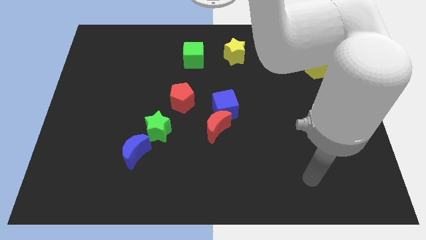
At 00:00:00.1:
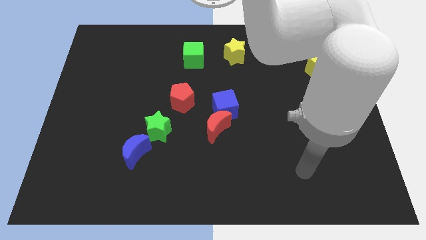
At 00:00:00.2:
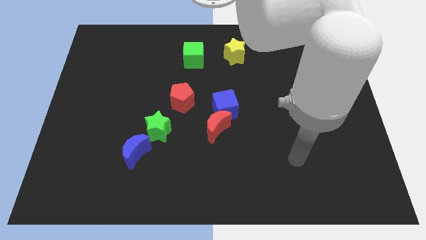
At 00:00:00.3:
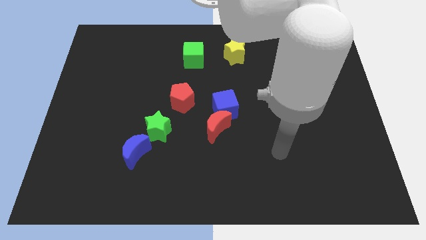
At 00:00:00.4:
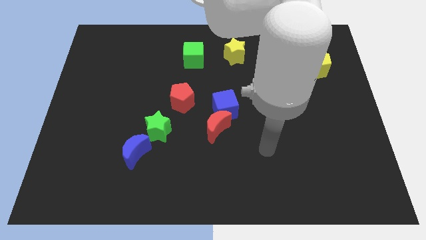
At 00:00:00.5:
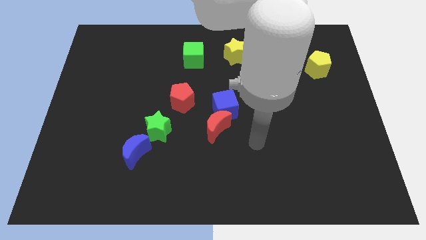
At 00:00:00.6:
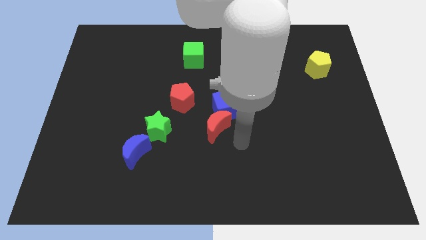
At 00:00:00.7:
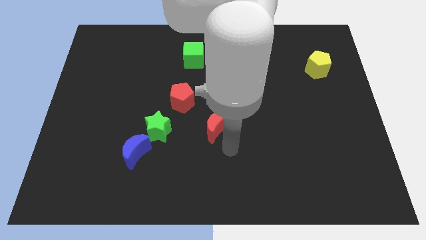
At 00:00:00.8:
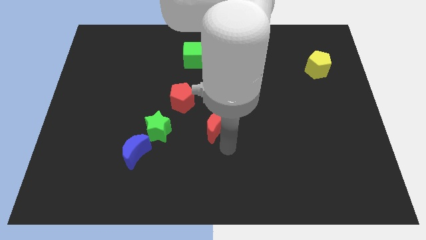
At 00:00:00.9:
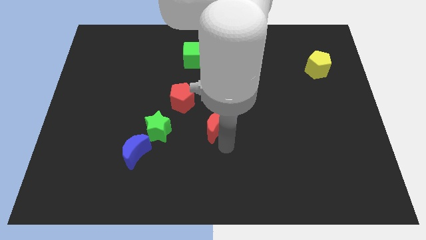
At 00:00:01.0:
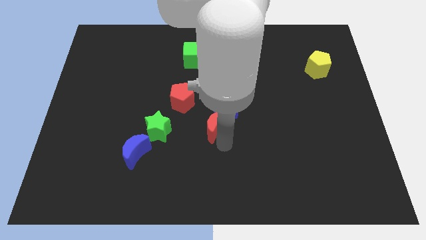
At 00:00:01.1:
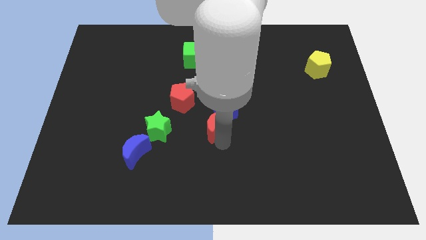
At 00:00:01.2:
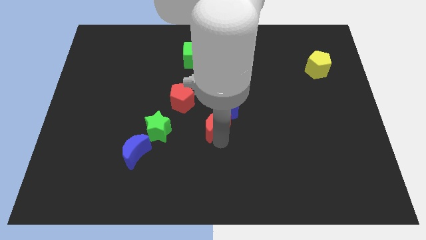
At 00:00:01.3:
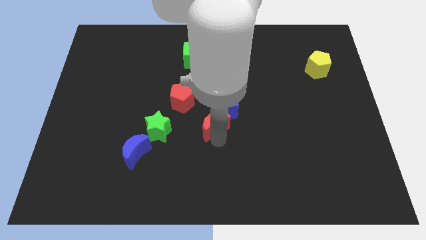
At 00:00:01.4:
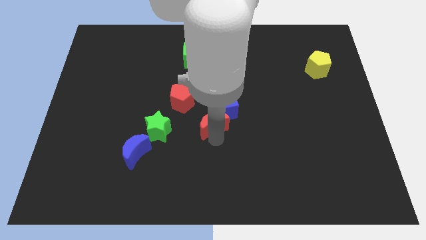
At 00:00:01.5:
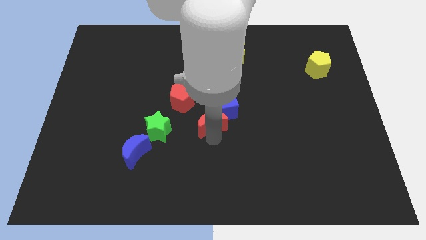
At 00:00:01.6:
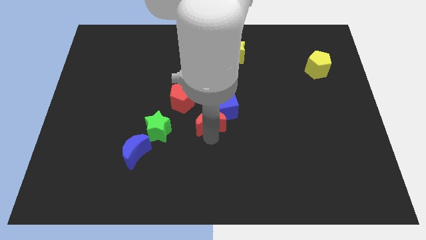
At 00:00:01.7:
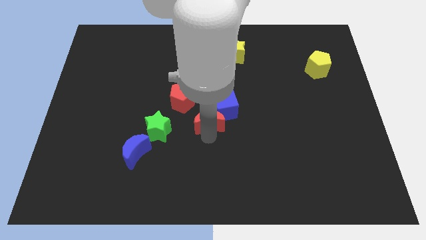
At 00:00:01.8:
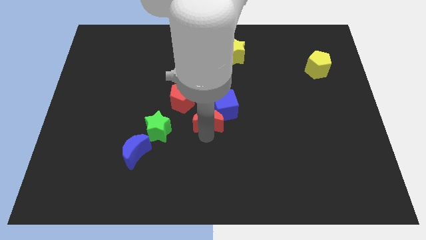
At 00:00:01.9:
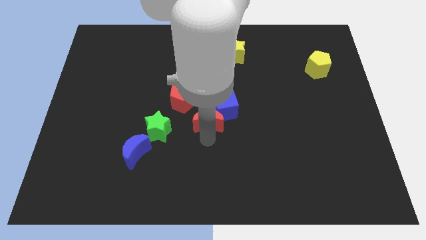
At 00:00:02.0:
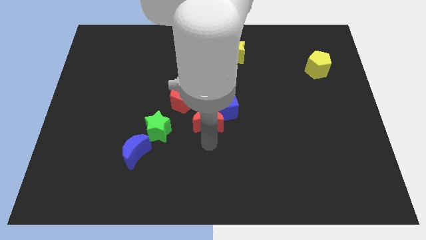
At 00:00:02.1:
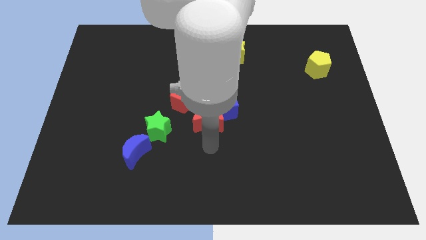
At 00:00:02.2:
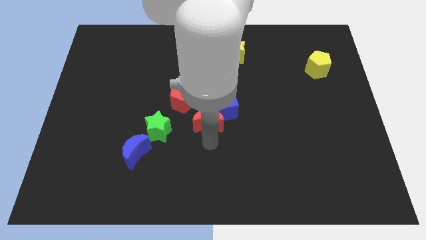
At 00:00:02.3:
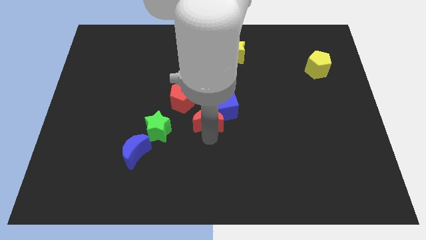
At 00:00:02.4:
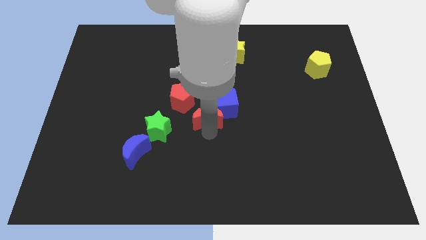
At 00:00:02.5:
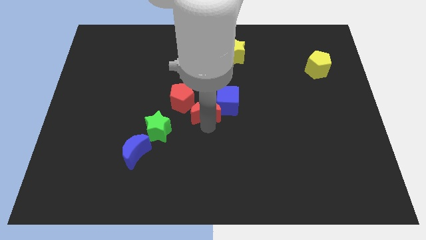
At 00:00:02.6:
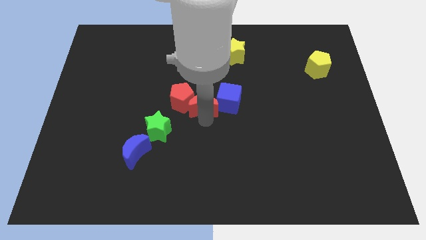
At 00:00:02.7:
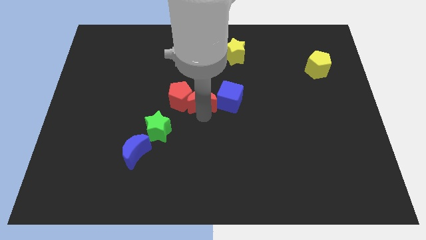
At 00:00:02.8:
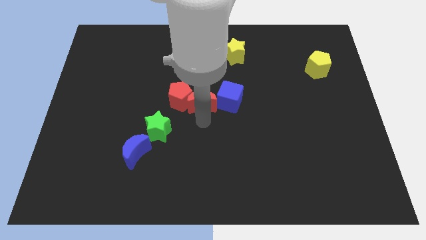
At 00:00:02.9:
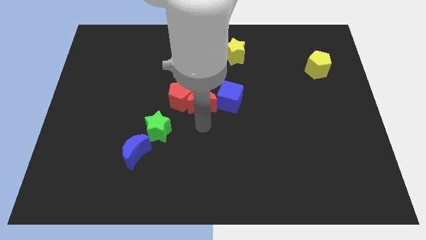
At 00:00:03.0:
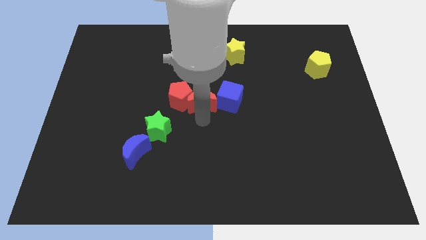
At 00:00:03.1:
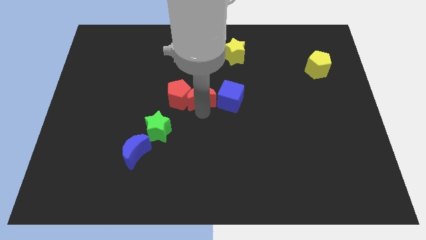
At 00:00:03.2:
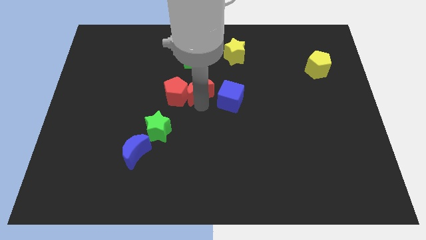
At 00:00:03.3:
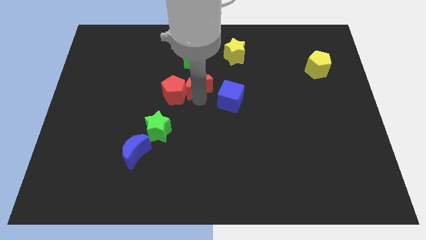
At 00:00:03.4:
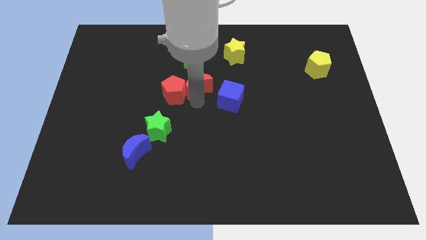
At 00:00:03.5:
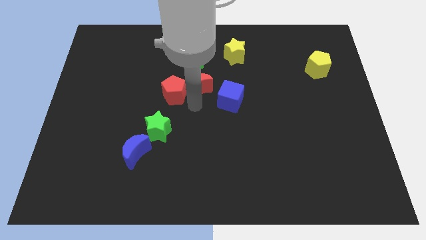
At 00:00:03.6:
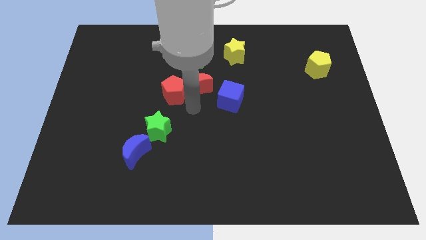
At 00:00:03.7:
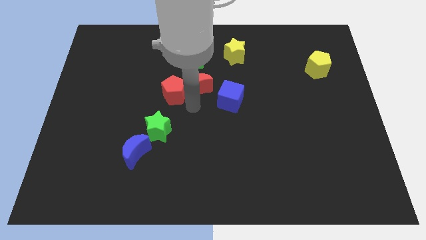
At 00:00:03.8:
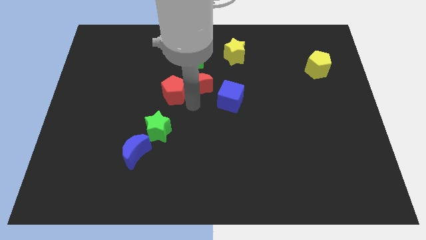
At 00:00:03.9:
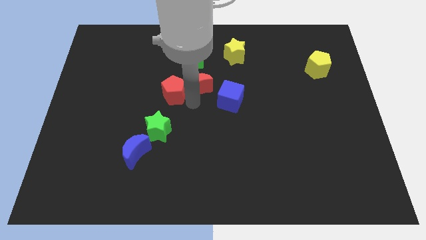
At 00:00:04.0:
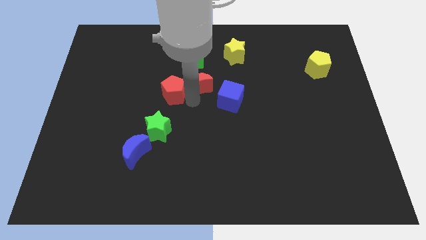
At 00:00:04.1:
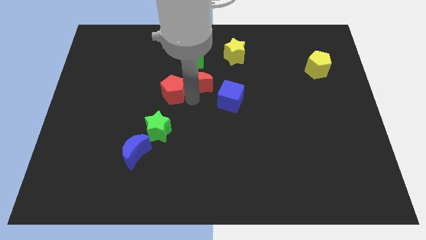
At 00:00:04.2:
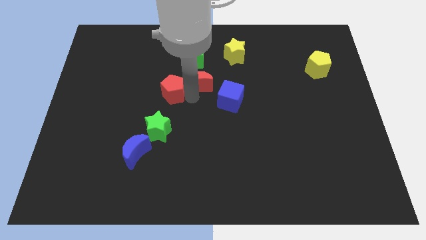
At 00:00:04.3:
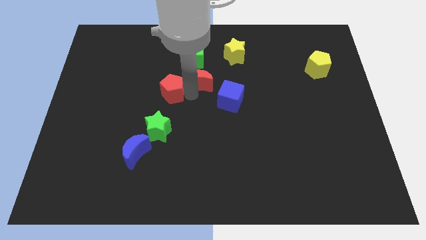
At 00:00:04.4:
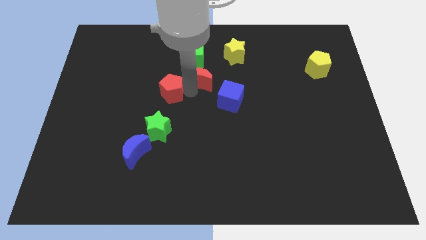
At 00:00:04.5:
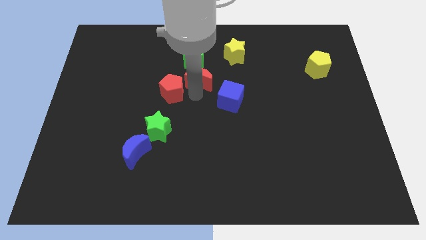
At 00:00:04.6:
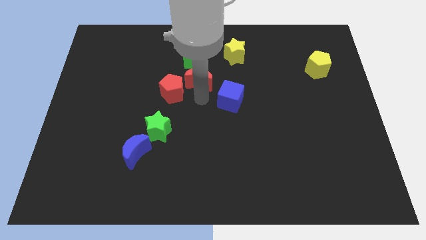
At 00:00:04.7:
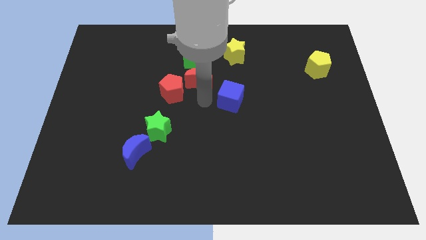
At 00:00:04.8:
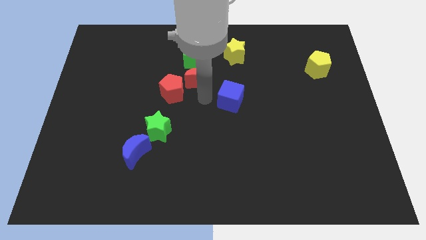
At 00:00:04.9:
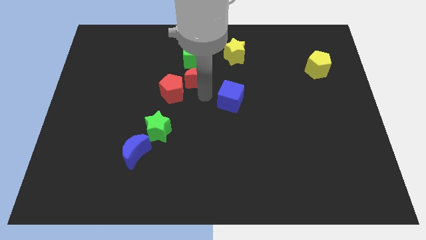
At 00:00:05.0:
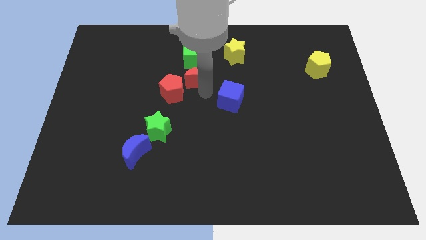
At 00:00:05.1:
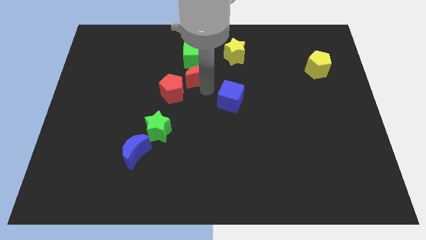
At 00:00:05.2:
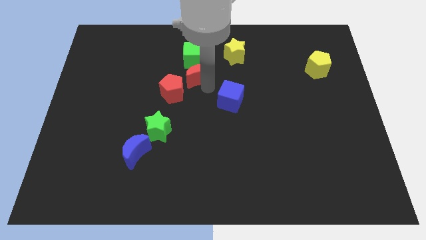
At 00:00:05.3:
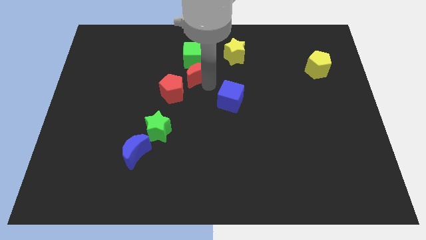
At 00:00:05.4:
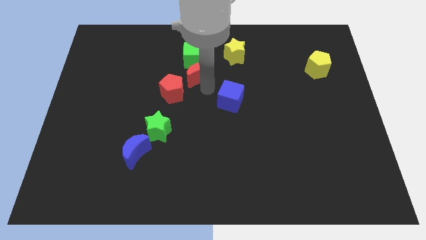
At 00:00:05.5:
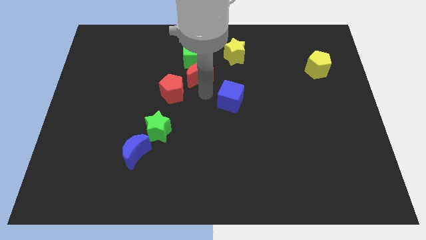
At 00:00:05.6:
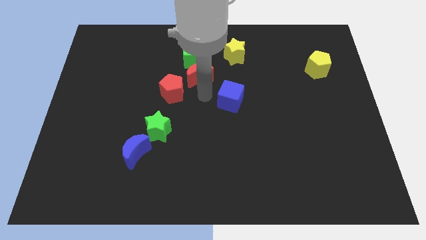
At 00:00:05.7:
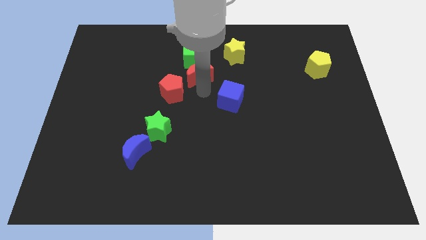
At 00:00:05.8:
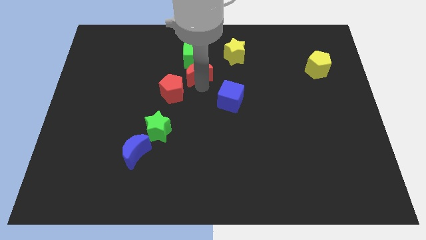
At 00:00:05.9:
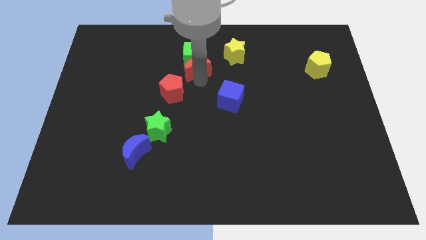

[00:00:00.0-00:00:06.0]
move the red moon towards the green cube

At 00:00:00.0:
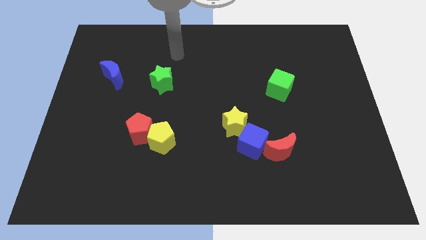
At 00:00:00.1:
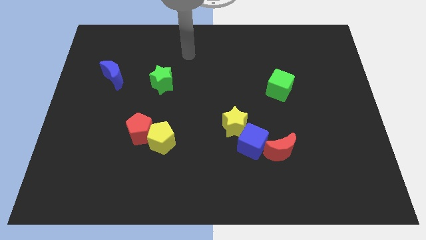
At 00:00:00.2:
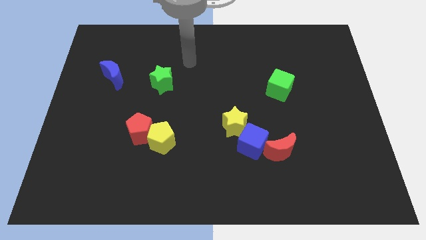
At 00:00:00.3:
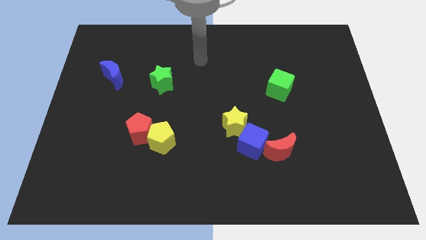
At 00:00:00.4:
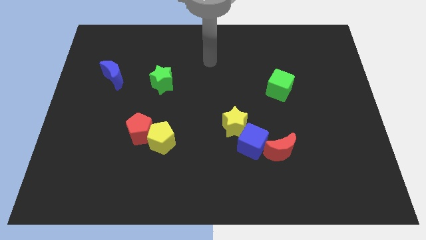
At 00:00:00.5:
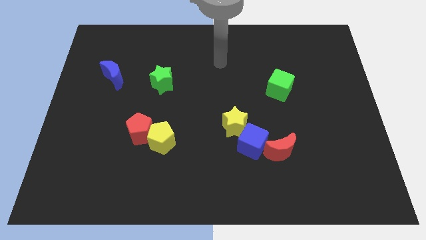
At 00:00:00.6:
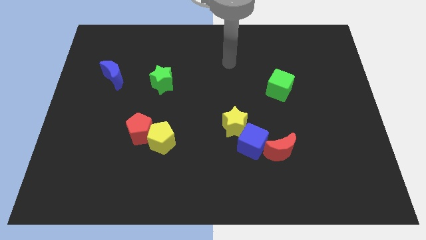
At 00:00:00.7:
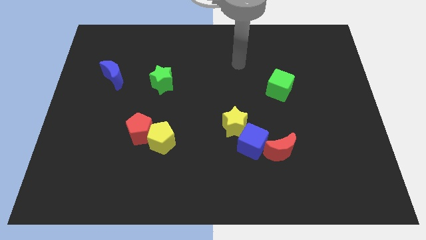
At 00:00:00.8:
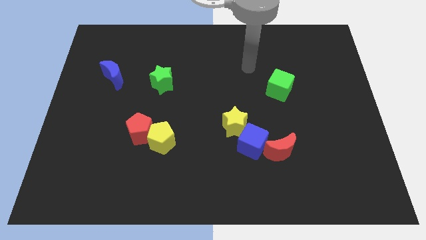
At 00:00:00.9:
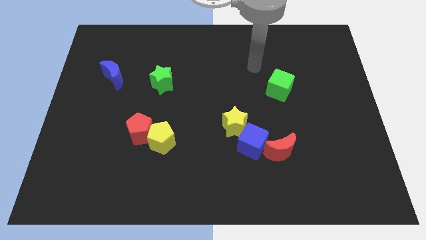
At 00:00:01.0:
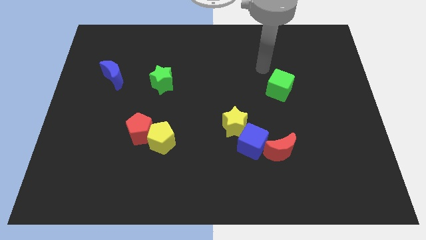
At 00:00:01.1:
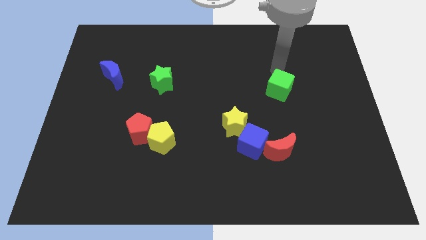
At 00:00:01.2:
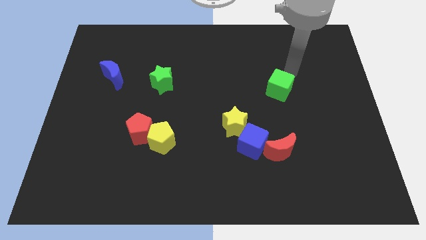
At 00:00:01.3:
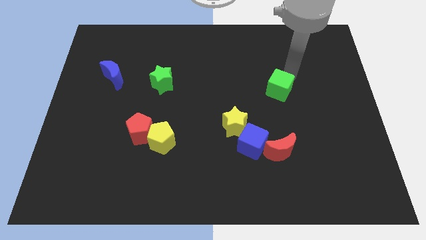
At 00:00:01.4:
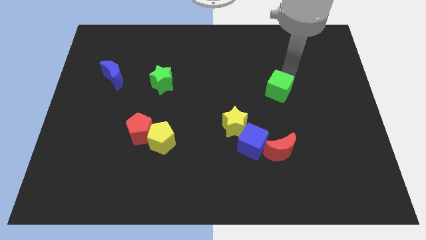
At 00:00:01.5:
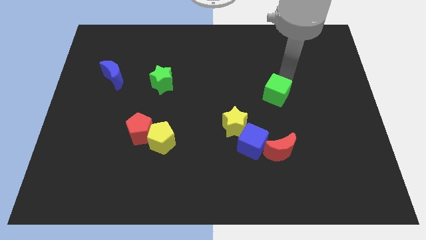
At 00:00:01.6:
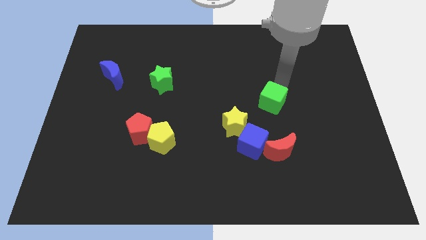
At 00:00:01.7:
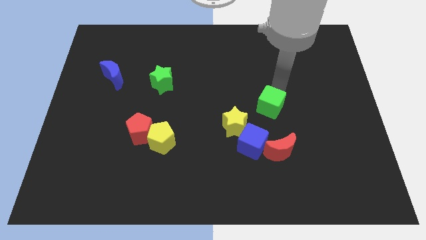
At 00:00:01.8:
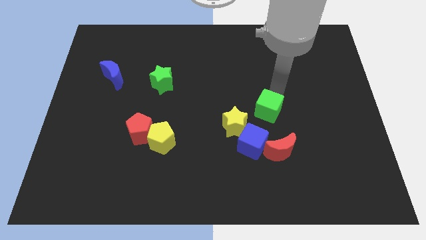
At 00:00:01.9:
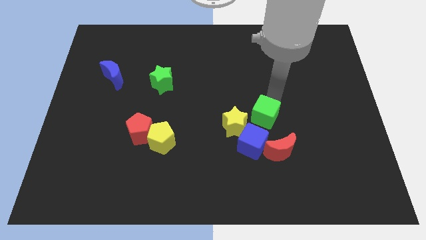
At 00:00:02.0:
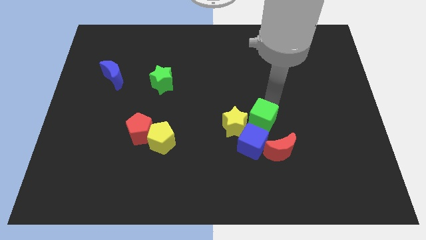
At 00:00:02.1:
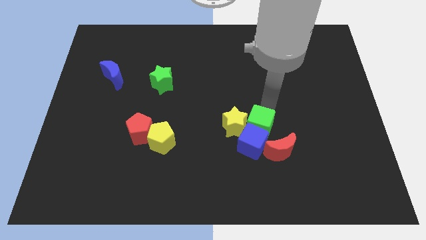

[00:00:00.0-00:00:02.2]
slide the green cube next to the blue cube
